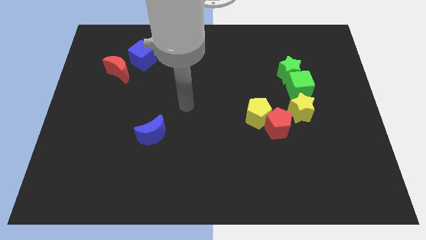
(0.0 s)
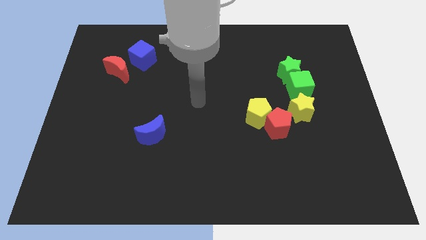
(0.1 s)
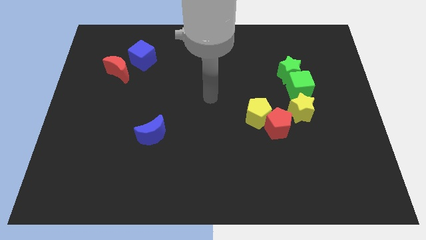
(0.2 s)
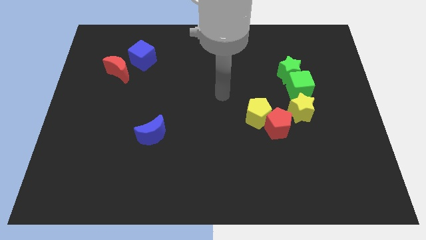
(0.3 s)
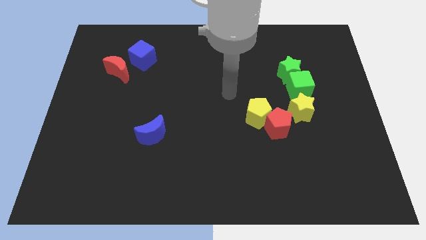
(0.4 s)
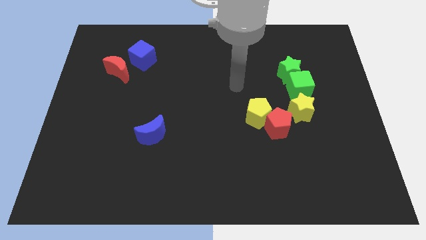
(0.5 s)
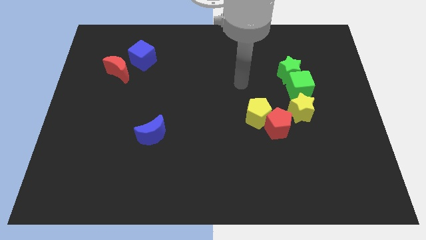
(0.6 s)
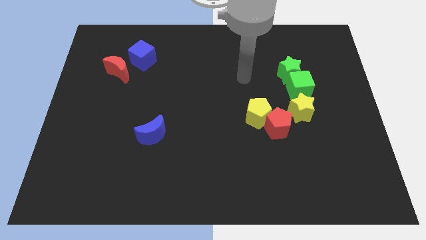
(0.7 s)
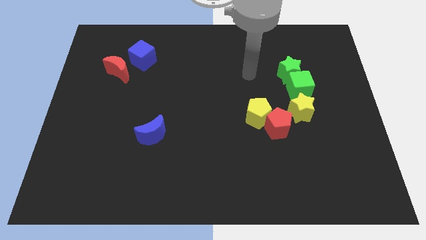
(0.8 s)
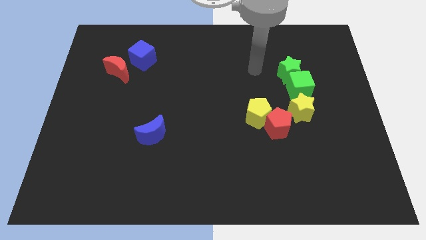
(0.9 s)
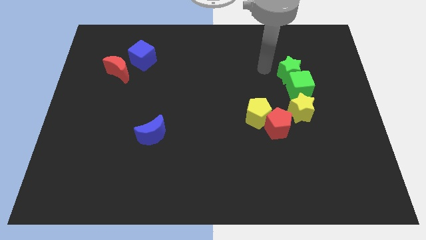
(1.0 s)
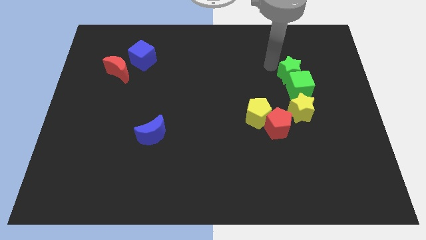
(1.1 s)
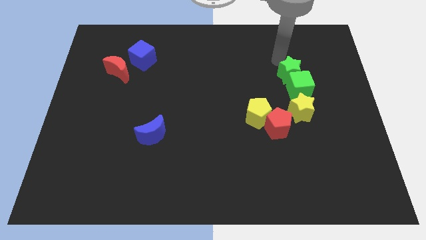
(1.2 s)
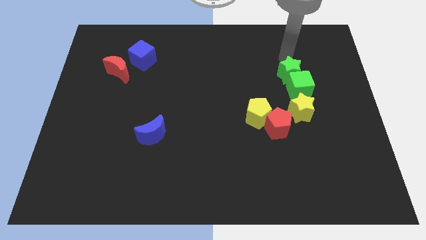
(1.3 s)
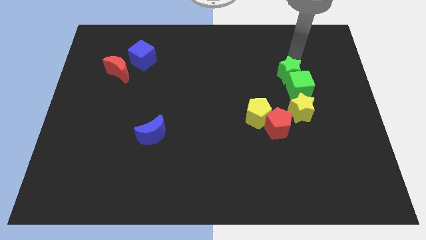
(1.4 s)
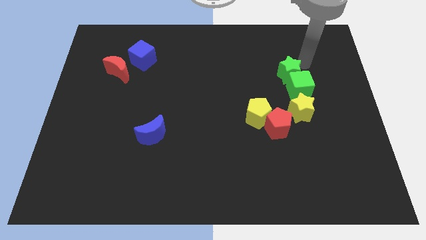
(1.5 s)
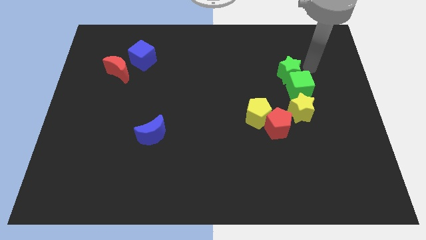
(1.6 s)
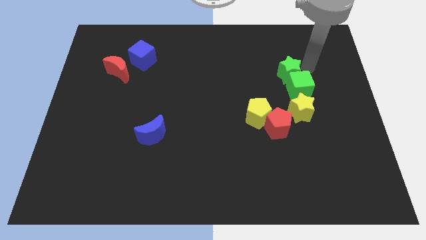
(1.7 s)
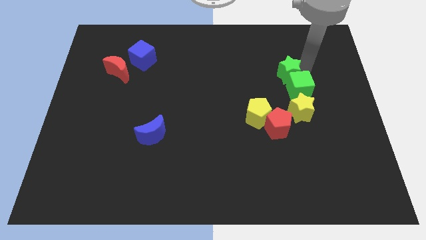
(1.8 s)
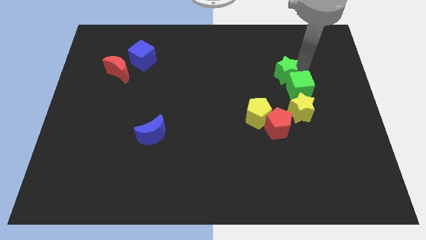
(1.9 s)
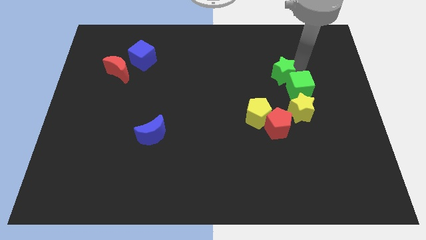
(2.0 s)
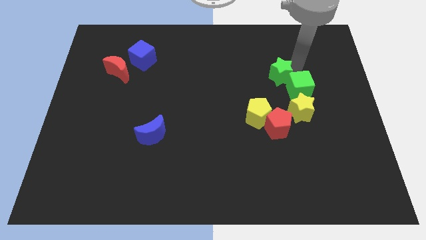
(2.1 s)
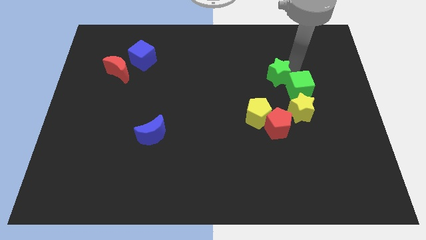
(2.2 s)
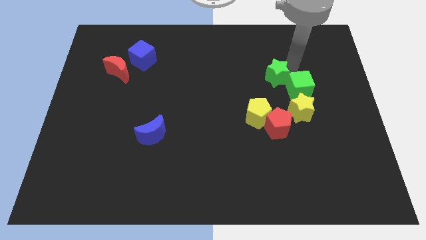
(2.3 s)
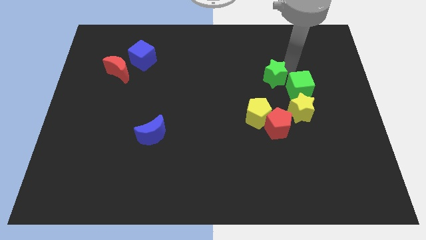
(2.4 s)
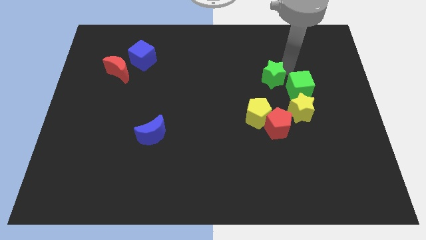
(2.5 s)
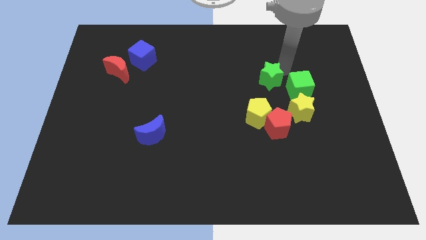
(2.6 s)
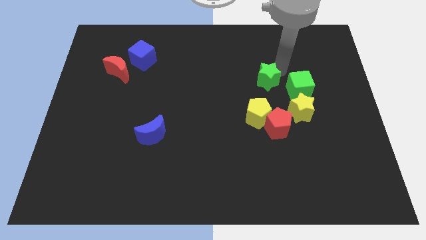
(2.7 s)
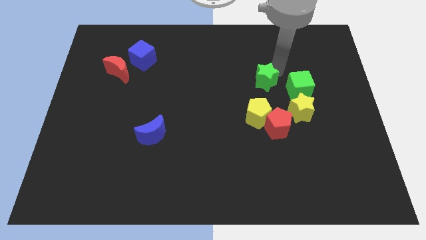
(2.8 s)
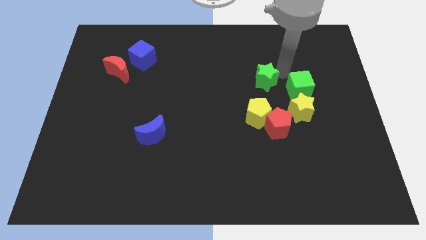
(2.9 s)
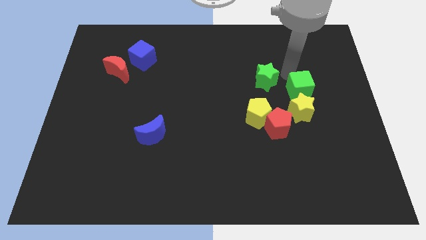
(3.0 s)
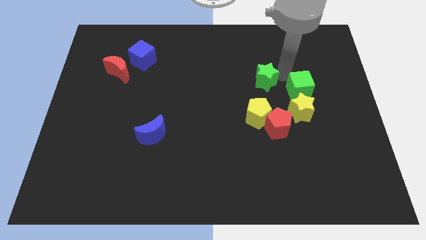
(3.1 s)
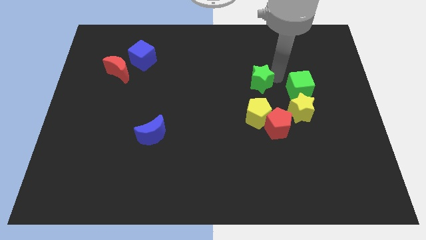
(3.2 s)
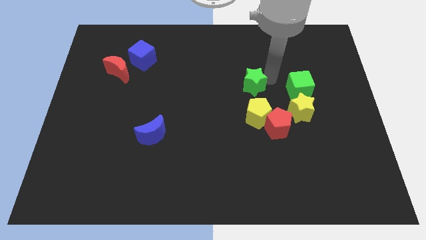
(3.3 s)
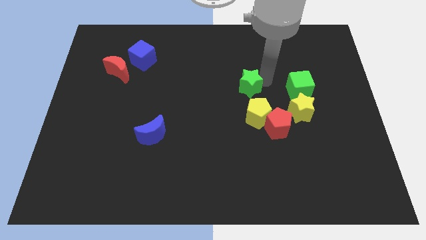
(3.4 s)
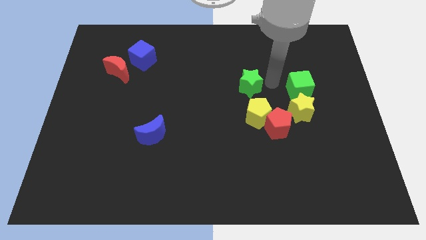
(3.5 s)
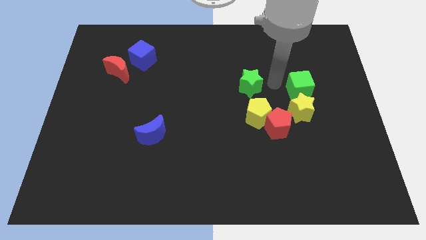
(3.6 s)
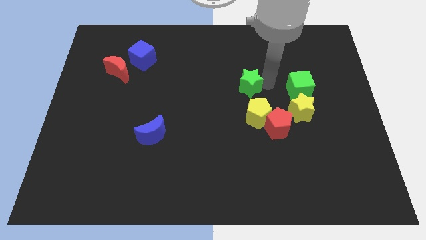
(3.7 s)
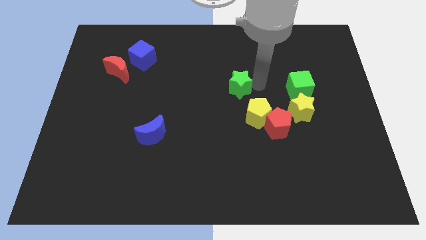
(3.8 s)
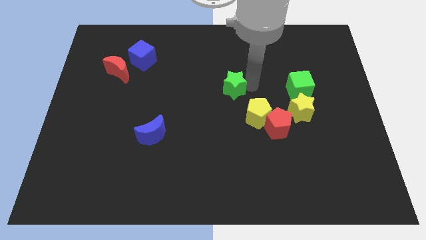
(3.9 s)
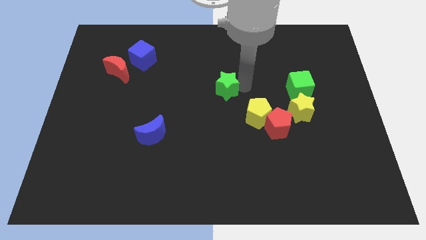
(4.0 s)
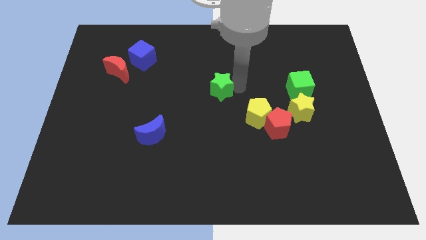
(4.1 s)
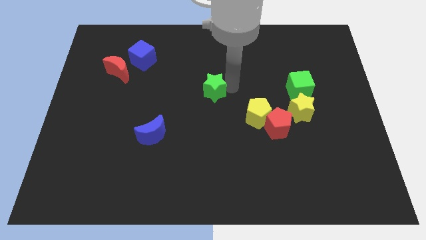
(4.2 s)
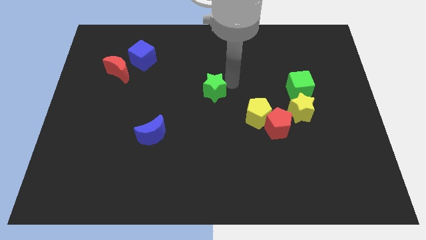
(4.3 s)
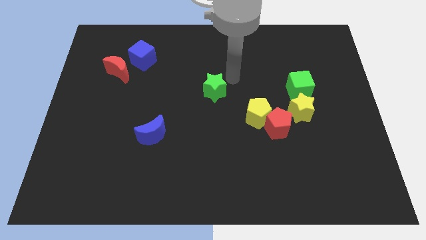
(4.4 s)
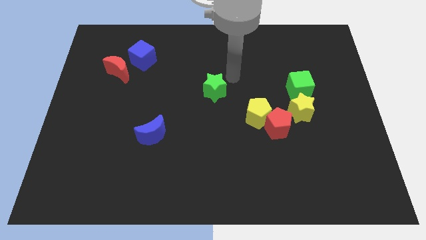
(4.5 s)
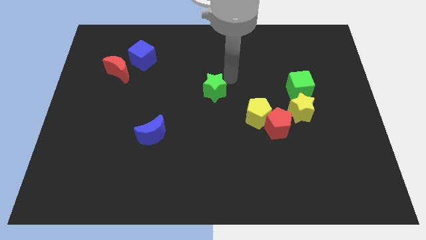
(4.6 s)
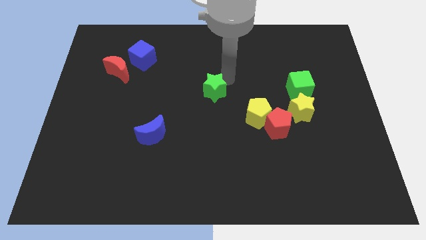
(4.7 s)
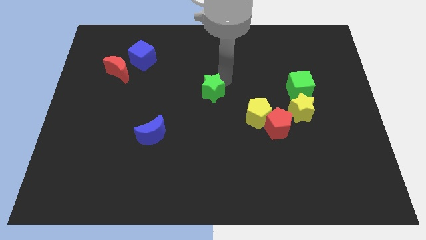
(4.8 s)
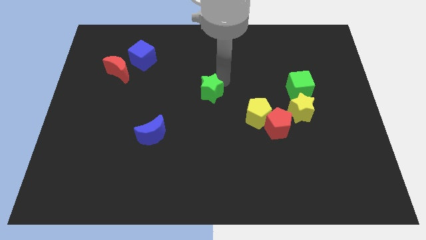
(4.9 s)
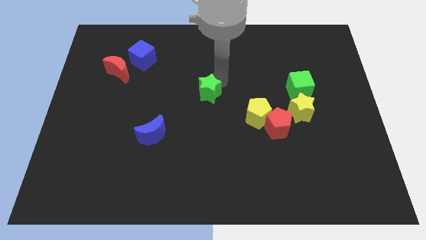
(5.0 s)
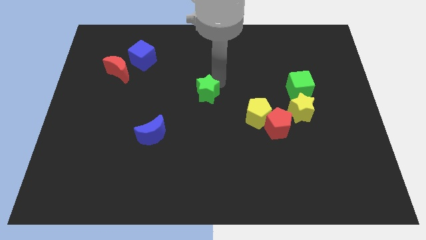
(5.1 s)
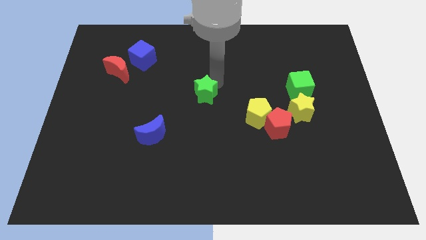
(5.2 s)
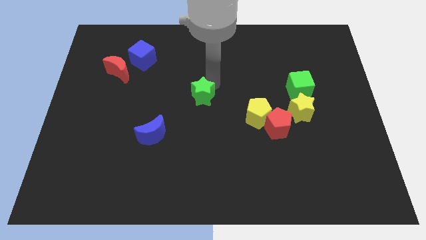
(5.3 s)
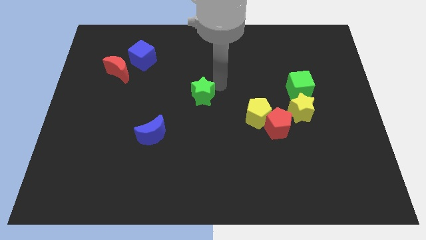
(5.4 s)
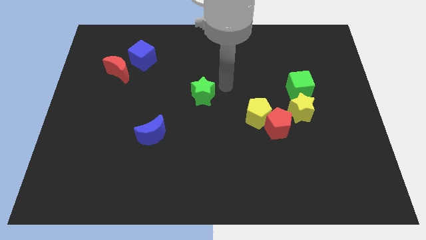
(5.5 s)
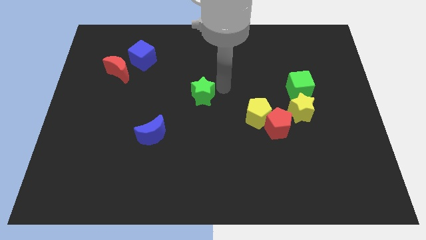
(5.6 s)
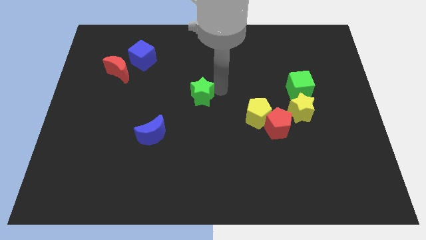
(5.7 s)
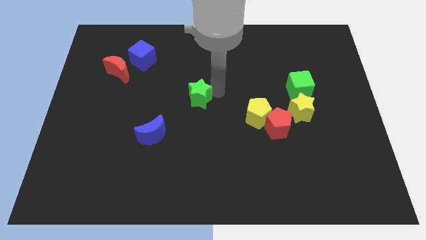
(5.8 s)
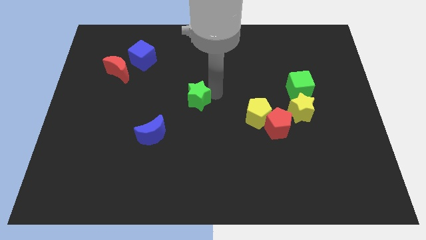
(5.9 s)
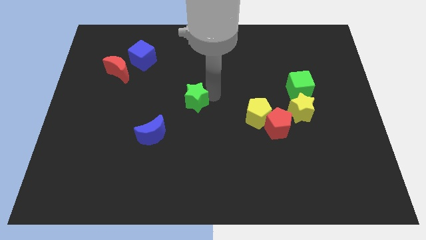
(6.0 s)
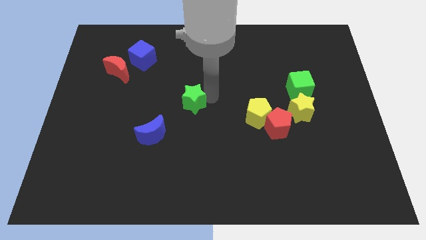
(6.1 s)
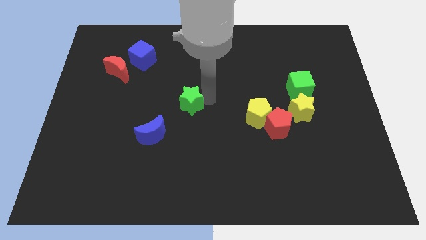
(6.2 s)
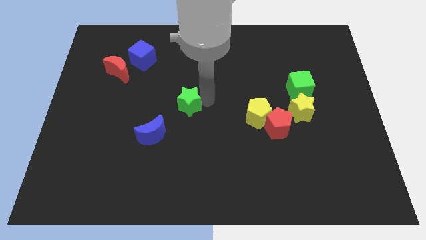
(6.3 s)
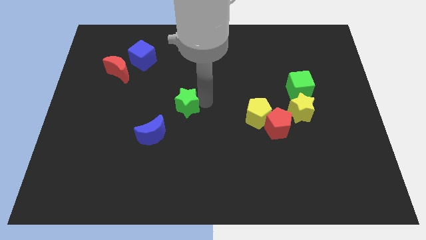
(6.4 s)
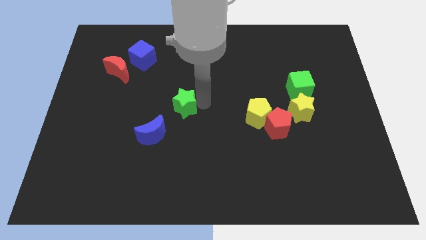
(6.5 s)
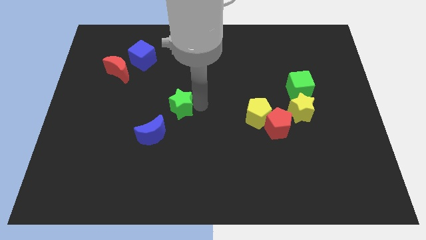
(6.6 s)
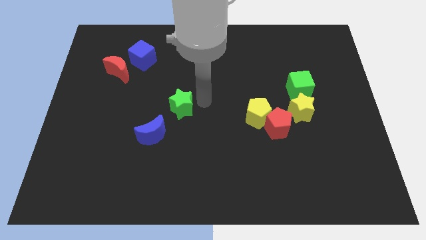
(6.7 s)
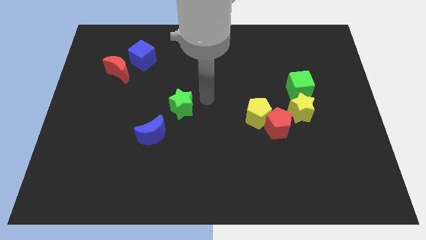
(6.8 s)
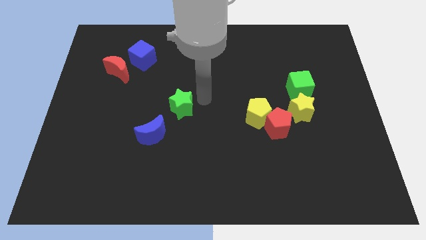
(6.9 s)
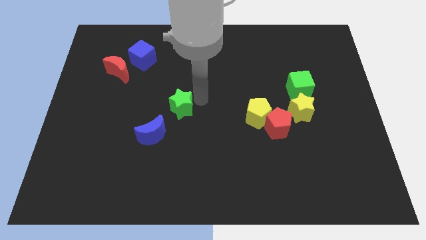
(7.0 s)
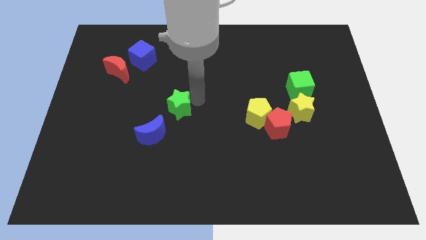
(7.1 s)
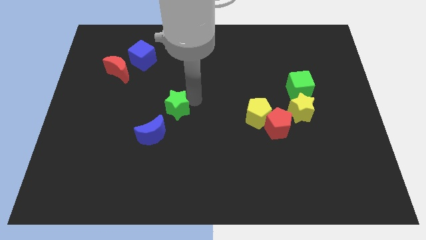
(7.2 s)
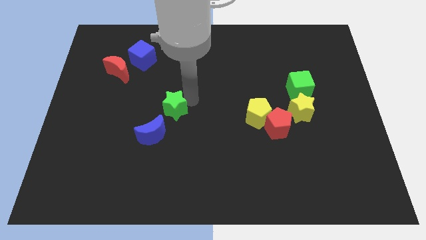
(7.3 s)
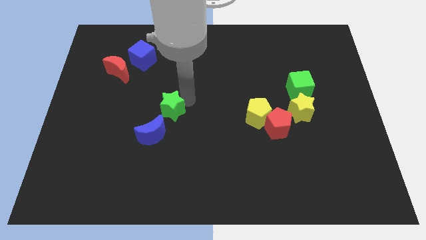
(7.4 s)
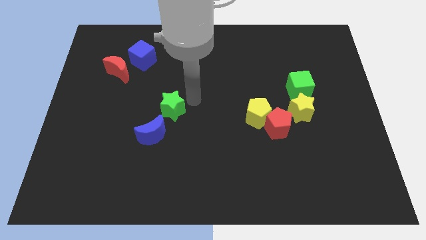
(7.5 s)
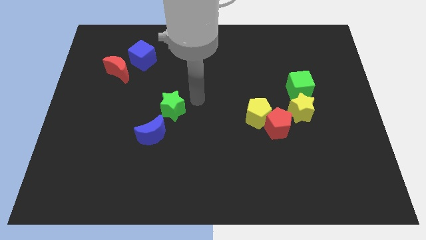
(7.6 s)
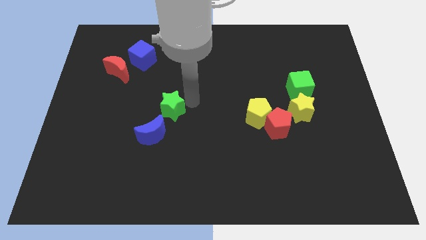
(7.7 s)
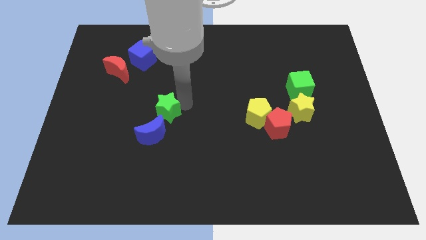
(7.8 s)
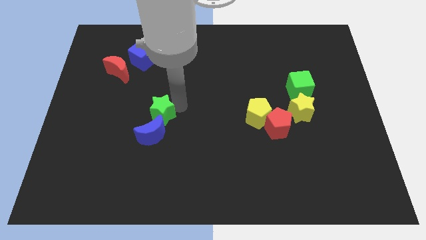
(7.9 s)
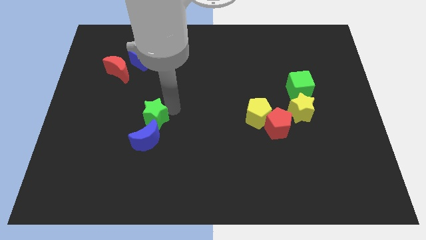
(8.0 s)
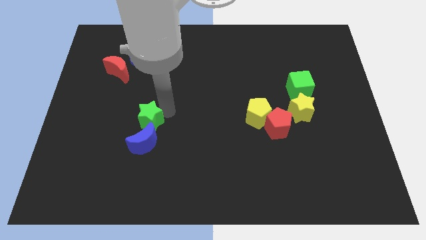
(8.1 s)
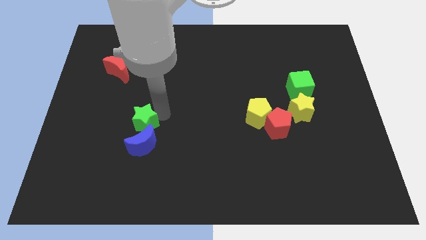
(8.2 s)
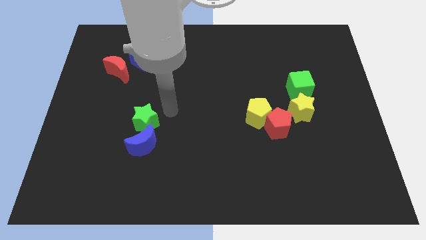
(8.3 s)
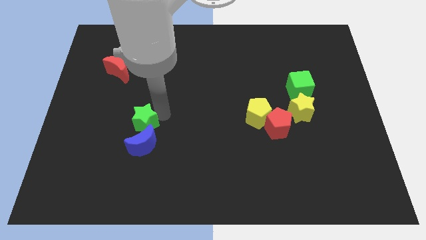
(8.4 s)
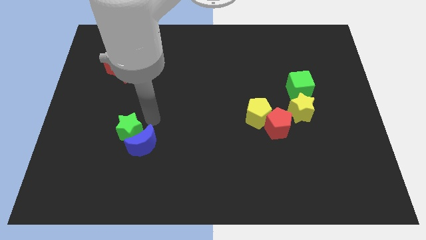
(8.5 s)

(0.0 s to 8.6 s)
move the green star to the left side of the blue moon
